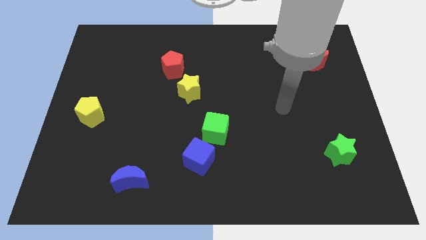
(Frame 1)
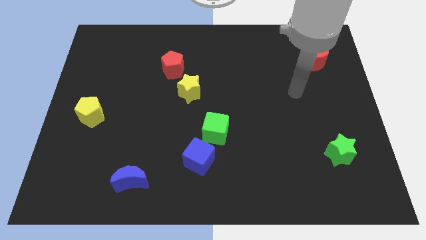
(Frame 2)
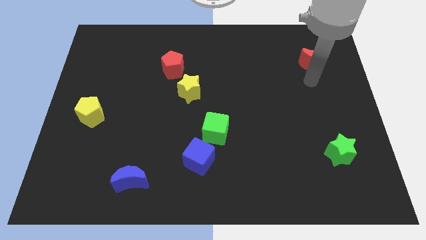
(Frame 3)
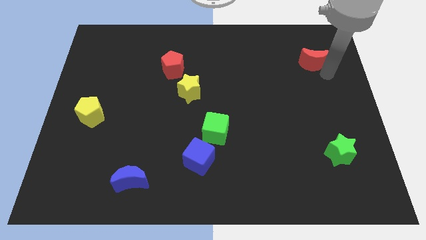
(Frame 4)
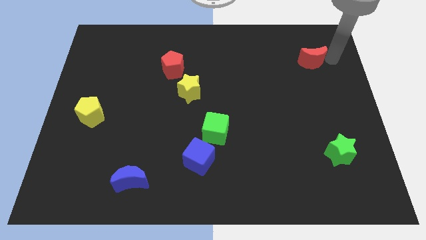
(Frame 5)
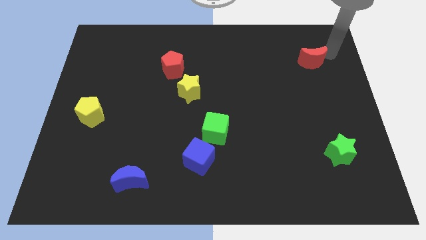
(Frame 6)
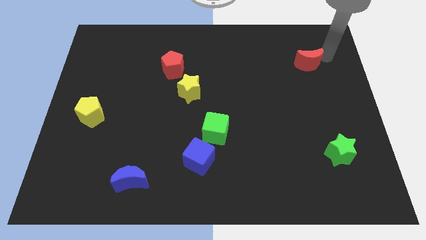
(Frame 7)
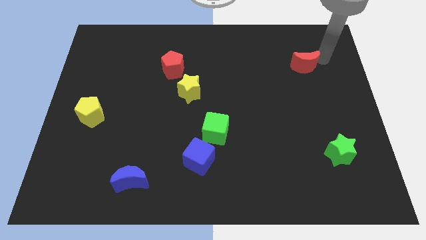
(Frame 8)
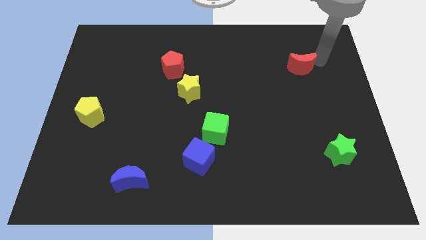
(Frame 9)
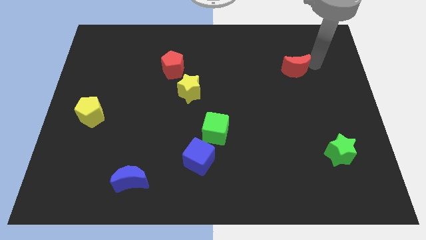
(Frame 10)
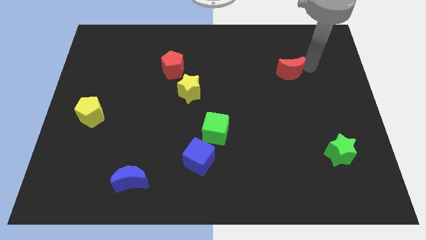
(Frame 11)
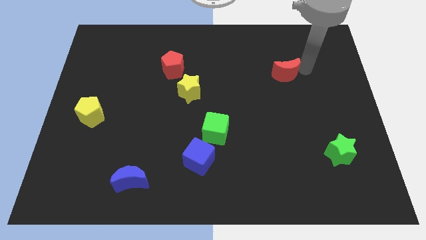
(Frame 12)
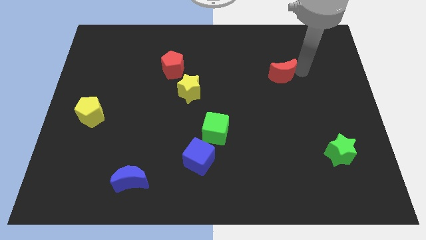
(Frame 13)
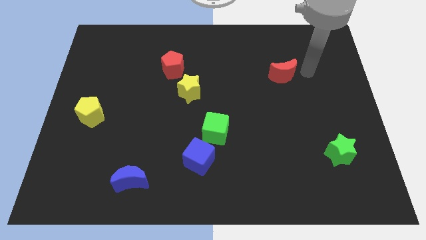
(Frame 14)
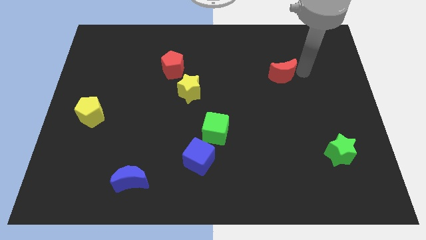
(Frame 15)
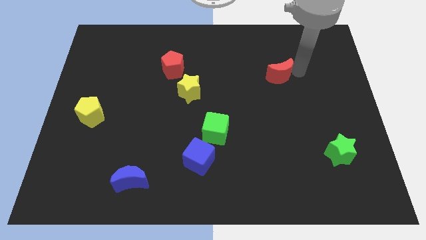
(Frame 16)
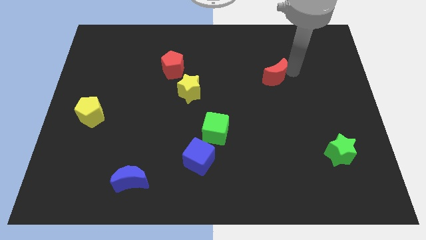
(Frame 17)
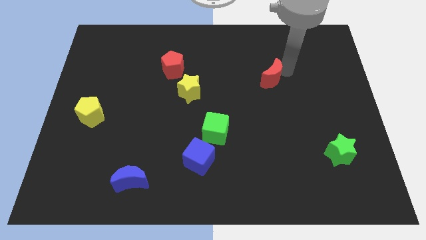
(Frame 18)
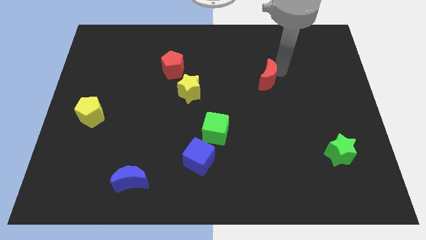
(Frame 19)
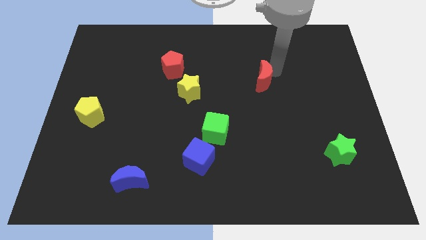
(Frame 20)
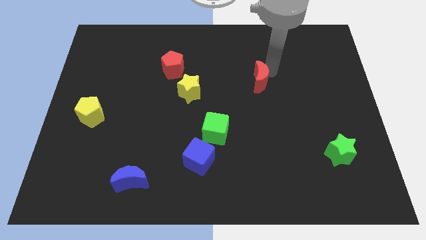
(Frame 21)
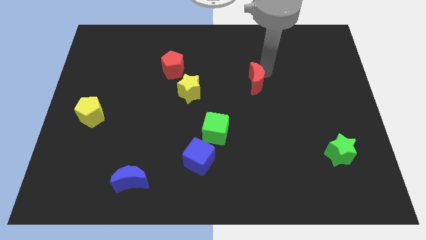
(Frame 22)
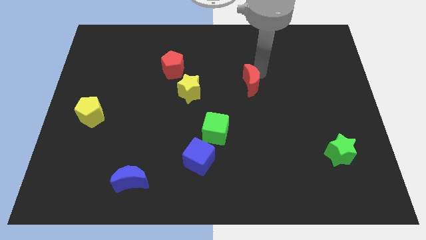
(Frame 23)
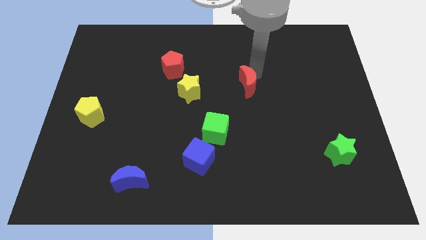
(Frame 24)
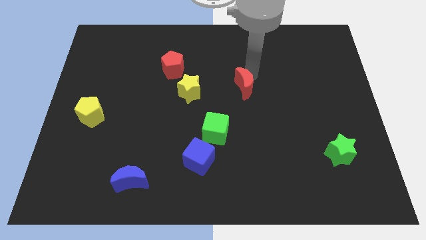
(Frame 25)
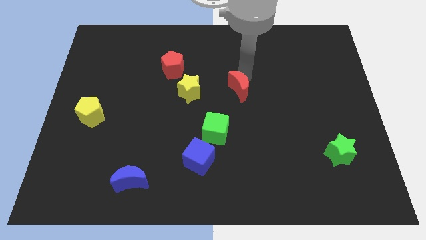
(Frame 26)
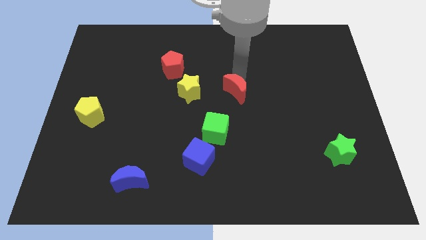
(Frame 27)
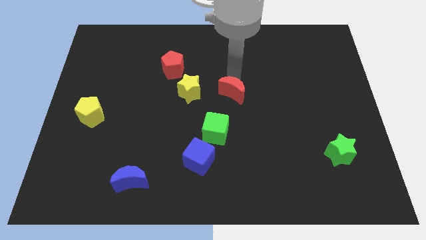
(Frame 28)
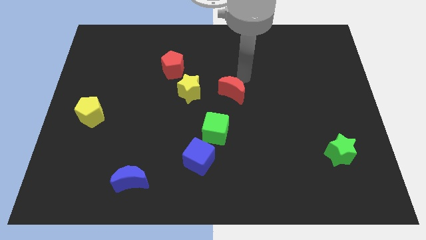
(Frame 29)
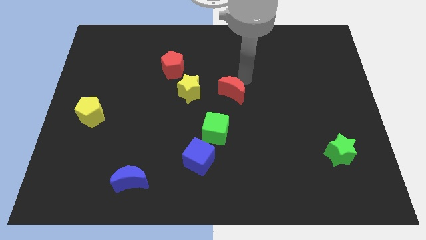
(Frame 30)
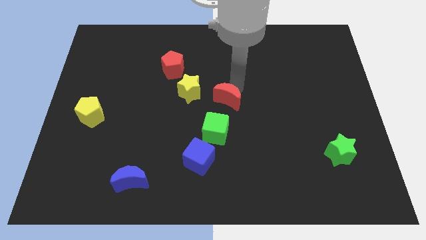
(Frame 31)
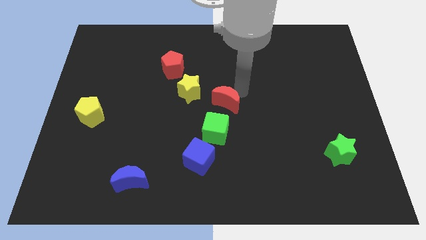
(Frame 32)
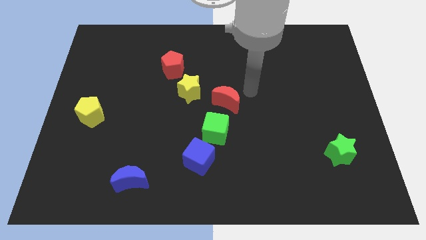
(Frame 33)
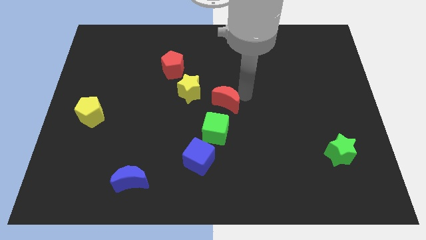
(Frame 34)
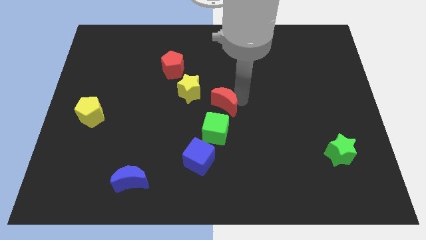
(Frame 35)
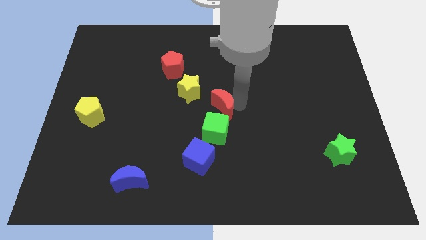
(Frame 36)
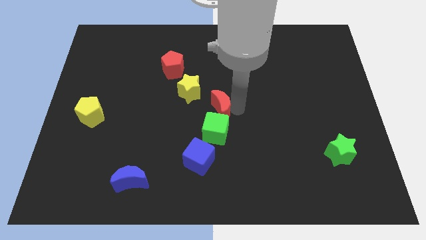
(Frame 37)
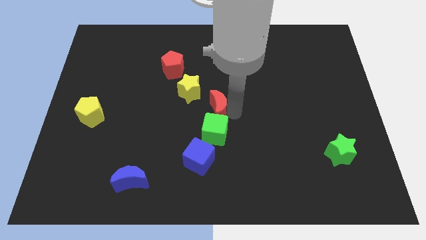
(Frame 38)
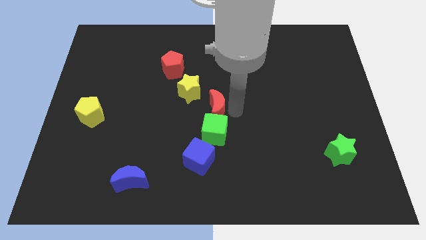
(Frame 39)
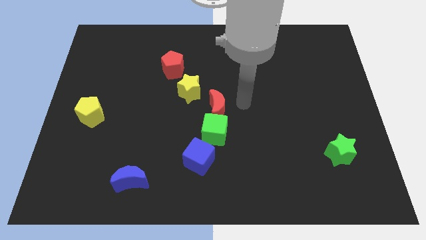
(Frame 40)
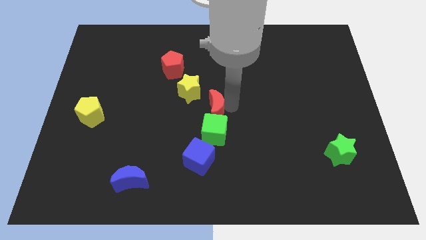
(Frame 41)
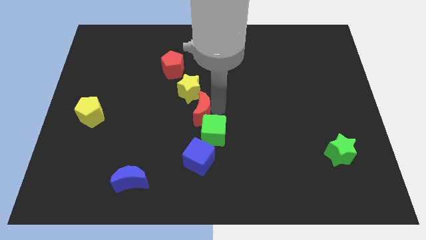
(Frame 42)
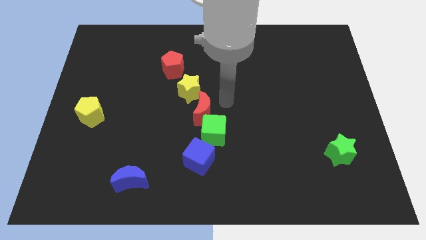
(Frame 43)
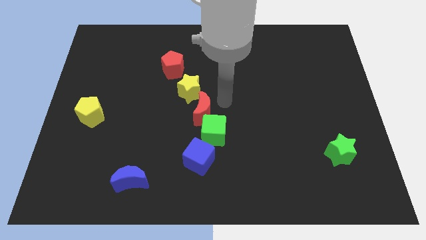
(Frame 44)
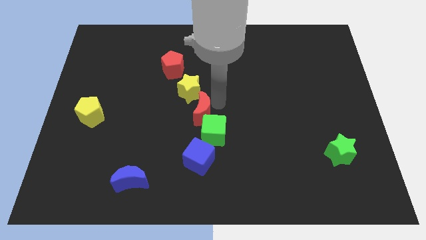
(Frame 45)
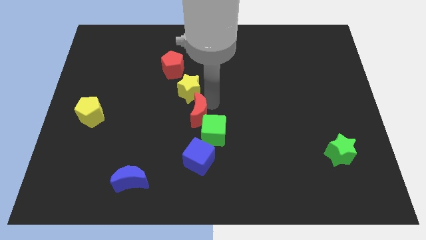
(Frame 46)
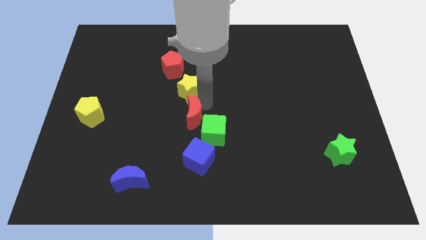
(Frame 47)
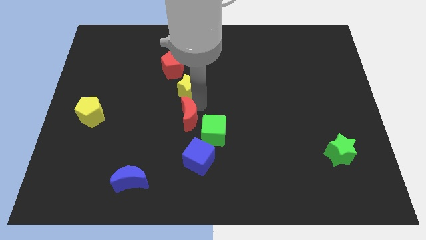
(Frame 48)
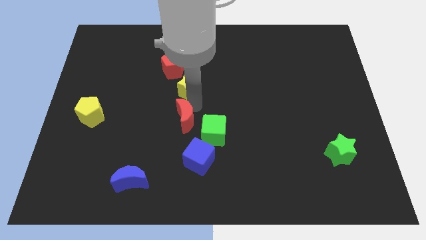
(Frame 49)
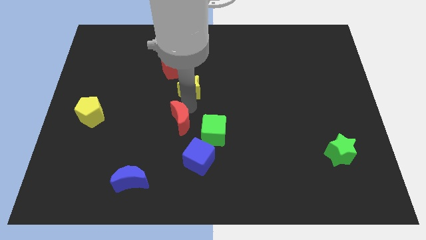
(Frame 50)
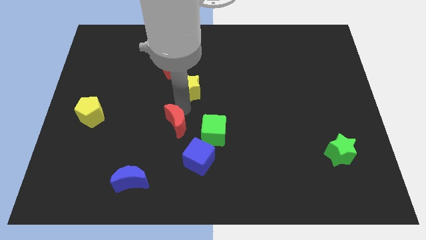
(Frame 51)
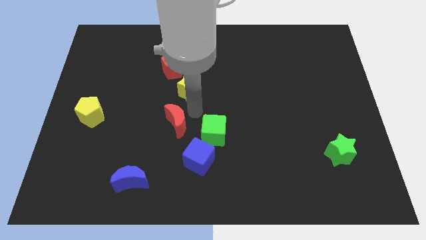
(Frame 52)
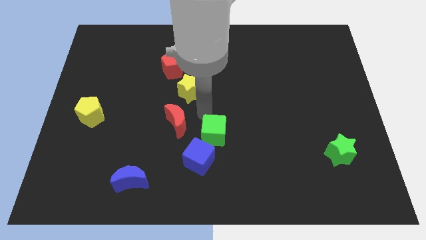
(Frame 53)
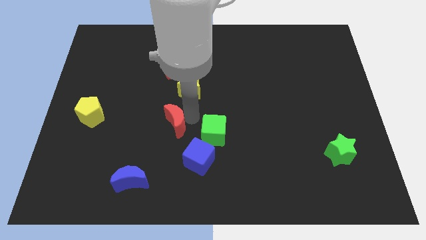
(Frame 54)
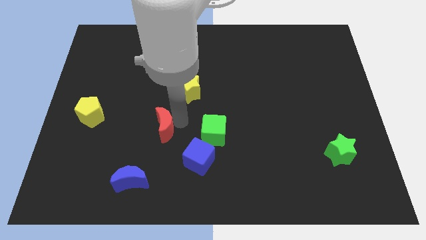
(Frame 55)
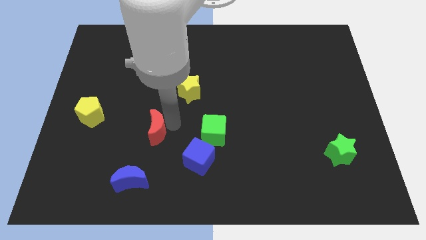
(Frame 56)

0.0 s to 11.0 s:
put the red moon above the blue moon

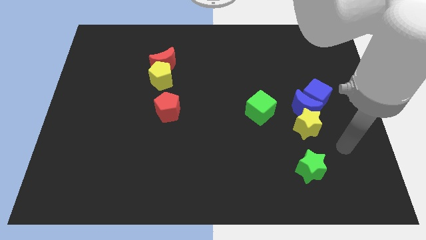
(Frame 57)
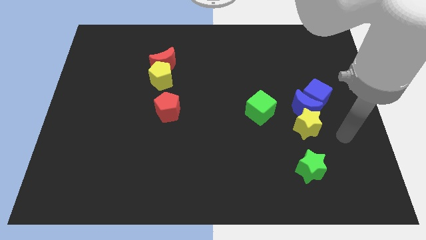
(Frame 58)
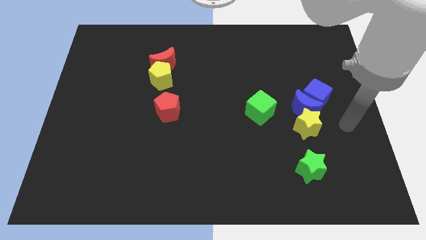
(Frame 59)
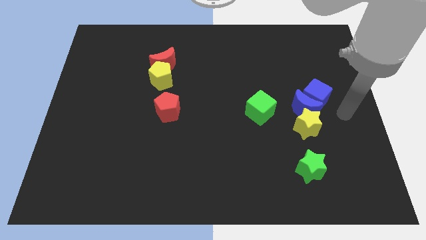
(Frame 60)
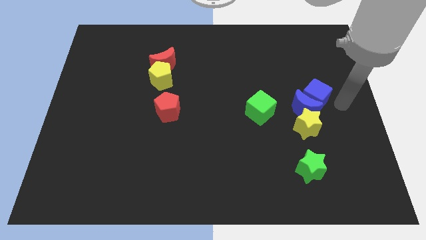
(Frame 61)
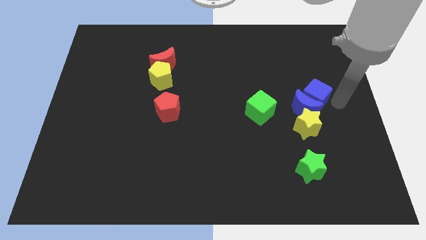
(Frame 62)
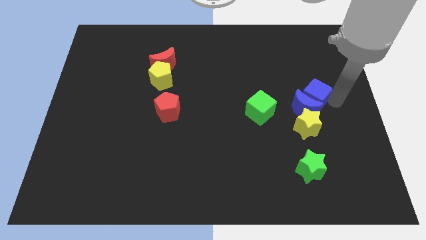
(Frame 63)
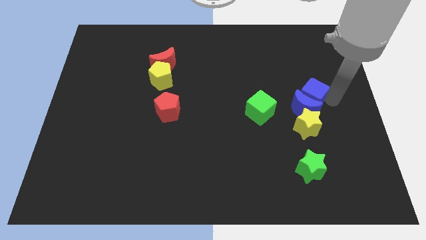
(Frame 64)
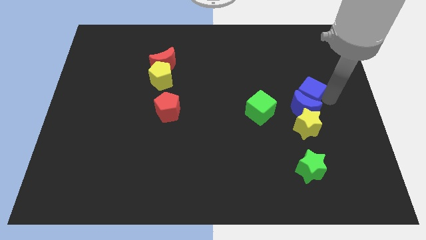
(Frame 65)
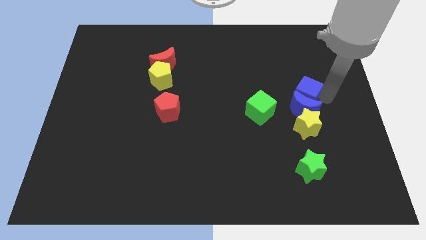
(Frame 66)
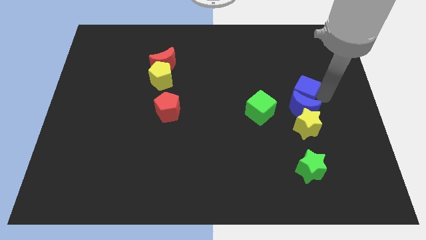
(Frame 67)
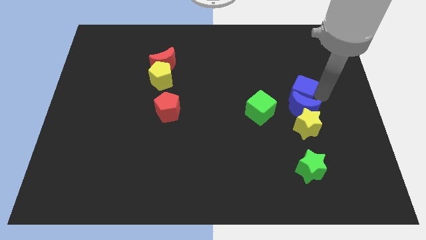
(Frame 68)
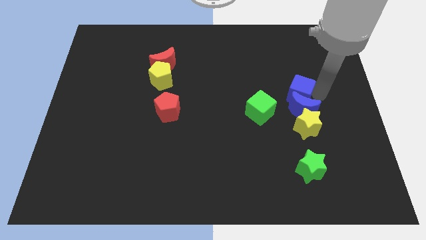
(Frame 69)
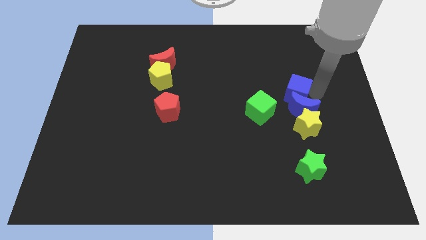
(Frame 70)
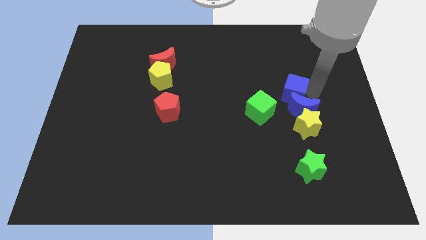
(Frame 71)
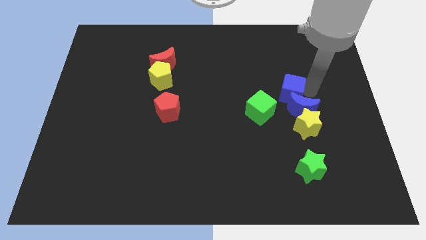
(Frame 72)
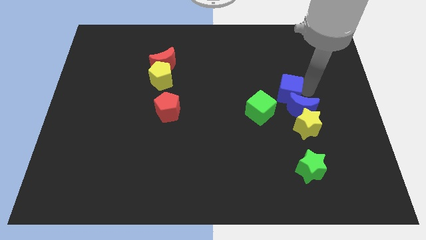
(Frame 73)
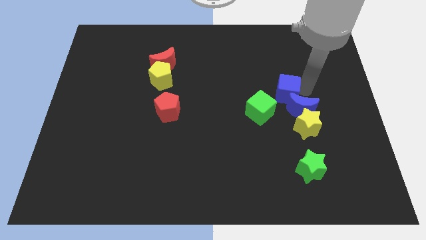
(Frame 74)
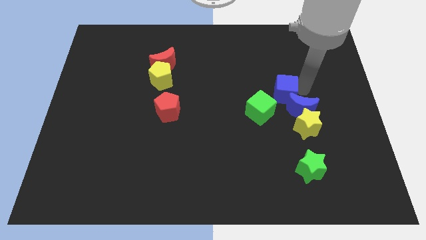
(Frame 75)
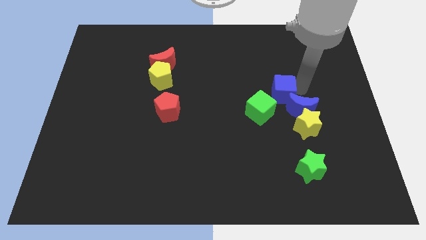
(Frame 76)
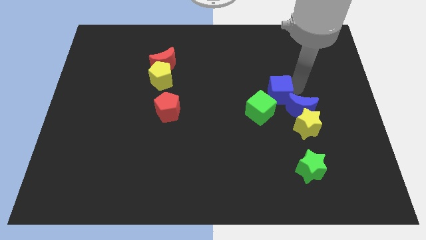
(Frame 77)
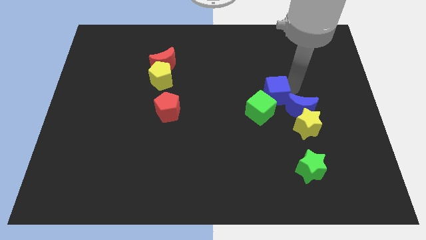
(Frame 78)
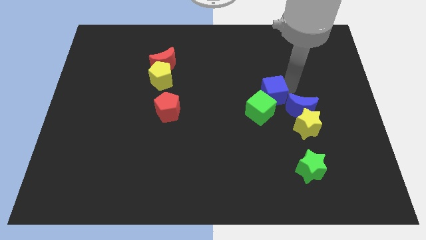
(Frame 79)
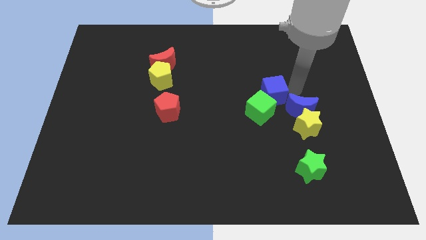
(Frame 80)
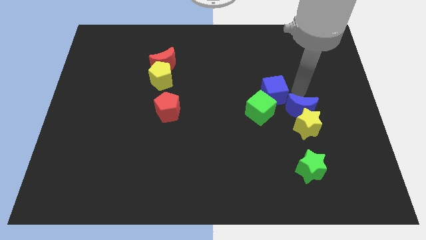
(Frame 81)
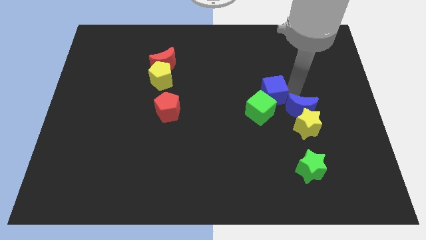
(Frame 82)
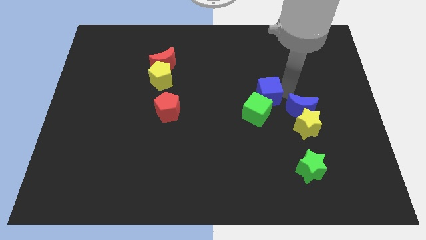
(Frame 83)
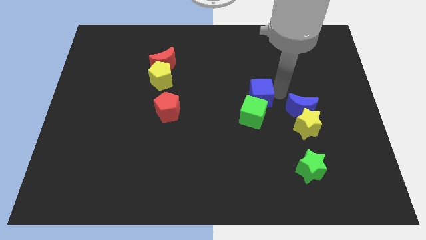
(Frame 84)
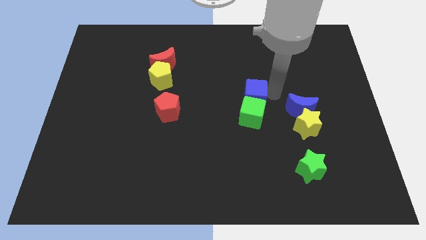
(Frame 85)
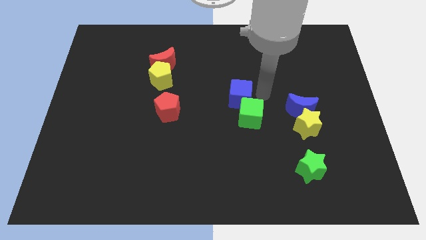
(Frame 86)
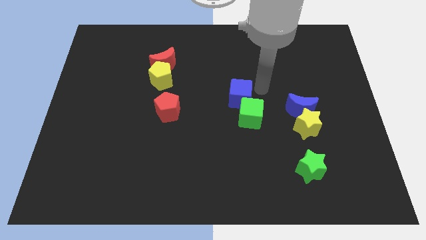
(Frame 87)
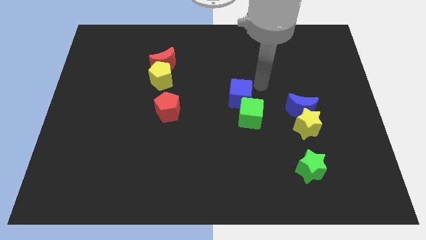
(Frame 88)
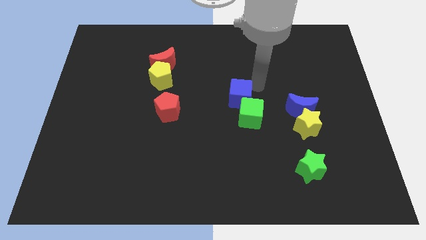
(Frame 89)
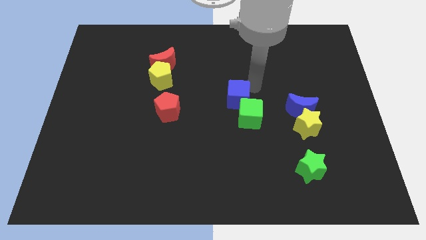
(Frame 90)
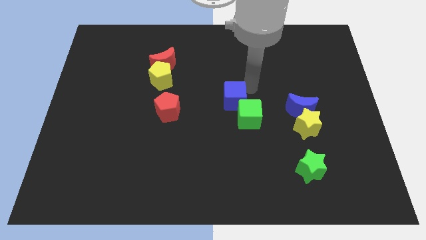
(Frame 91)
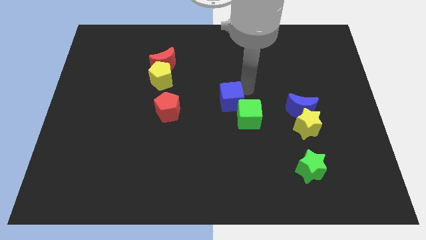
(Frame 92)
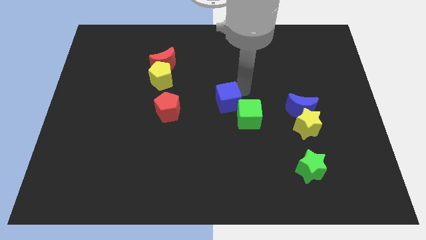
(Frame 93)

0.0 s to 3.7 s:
move the blue cube to the left side of the green cube
